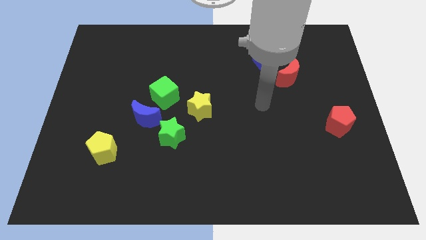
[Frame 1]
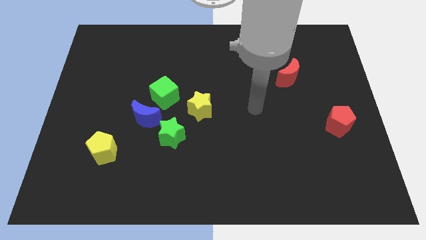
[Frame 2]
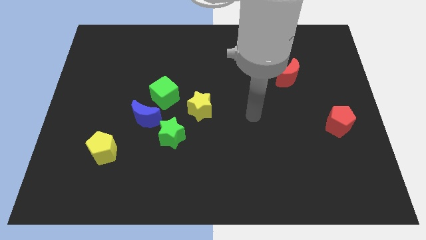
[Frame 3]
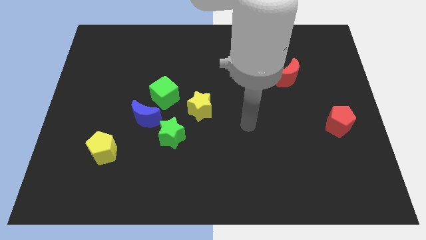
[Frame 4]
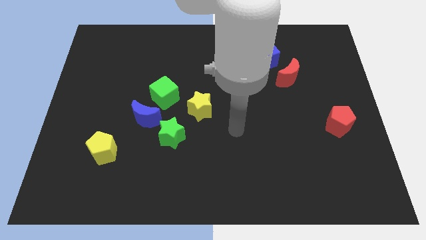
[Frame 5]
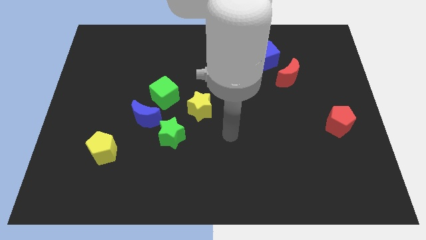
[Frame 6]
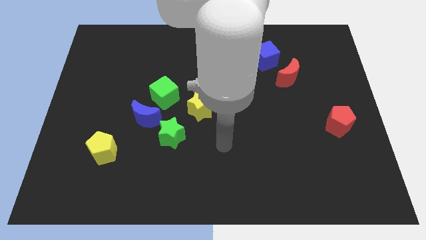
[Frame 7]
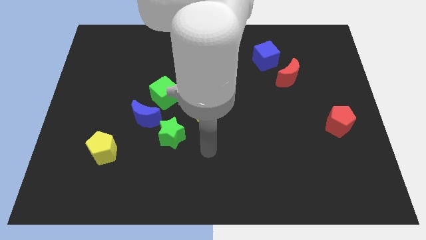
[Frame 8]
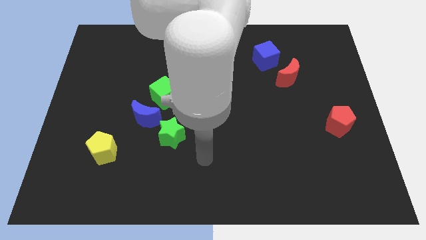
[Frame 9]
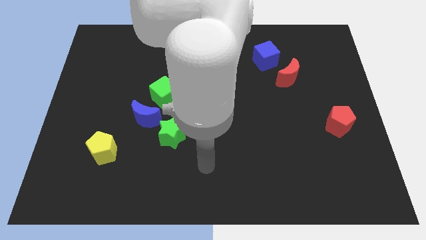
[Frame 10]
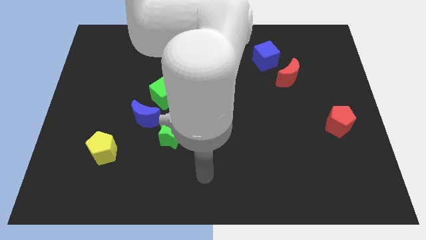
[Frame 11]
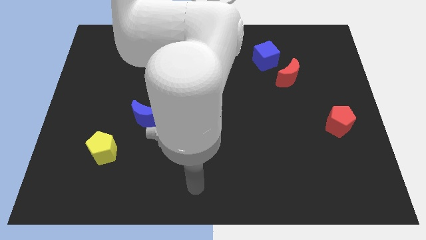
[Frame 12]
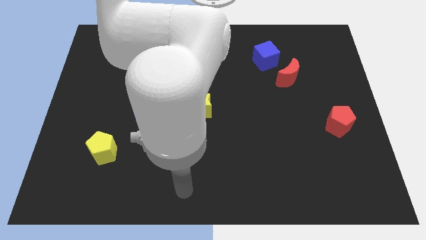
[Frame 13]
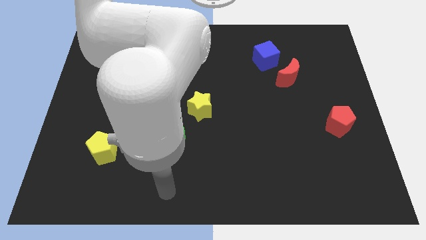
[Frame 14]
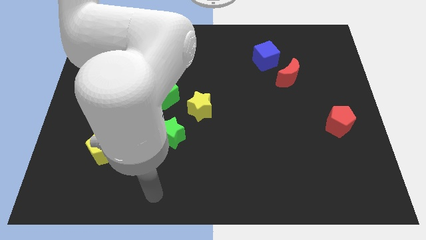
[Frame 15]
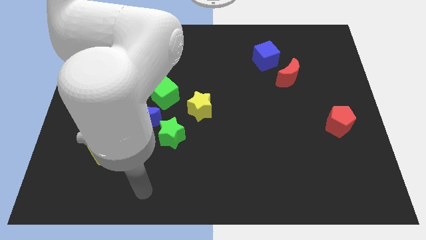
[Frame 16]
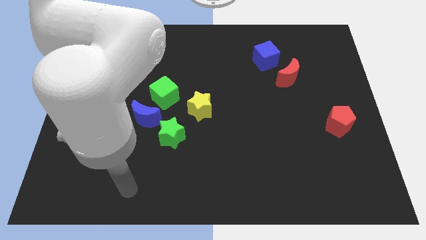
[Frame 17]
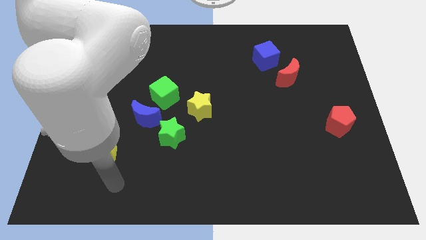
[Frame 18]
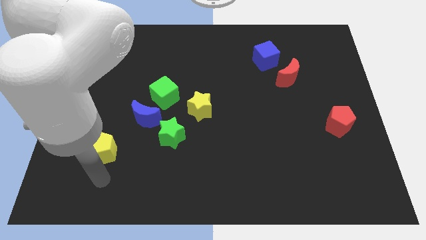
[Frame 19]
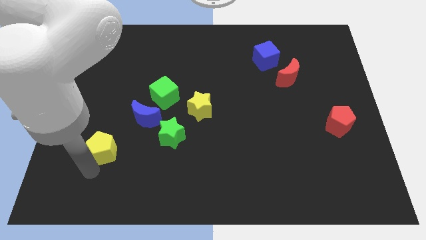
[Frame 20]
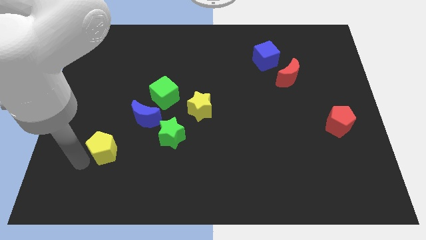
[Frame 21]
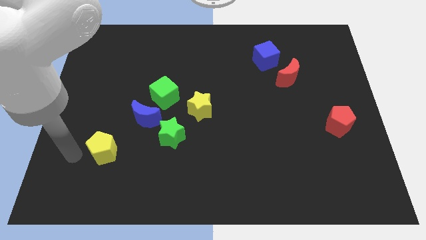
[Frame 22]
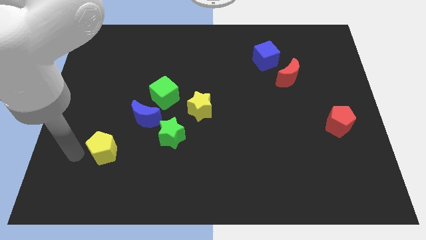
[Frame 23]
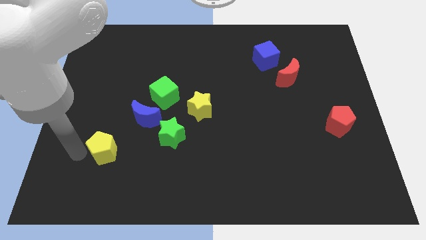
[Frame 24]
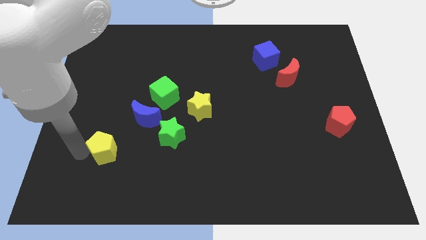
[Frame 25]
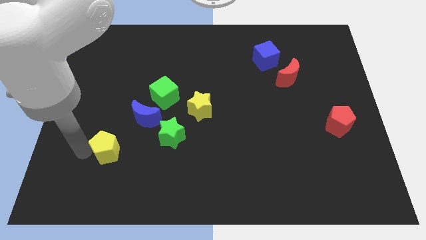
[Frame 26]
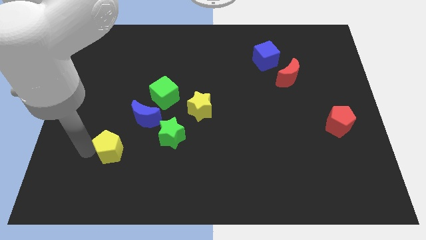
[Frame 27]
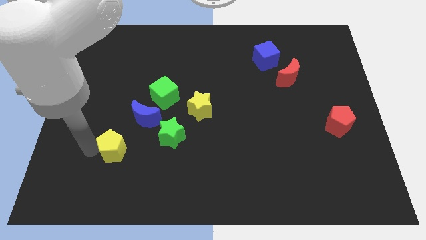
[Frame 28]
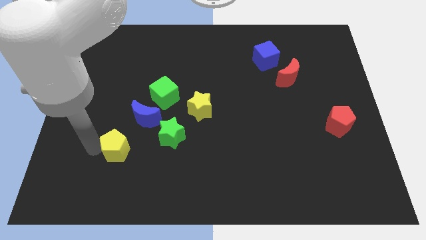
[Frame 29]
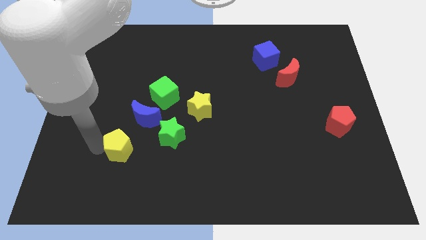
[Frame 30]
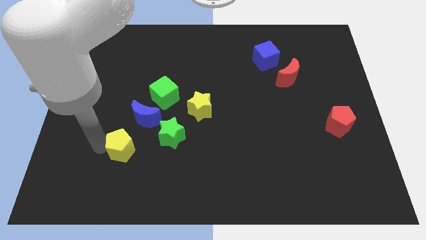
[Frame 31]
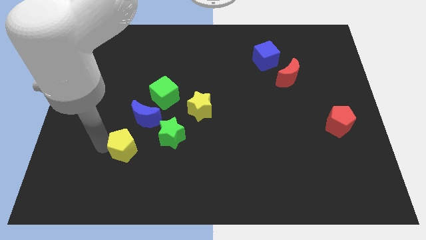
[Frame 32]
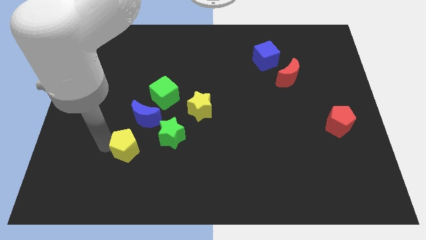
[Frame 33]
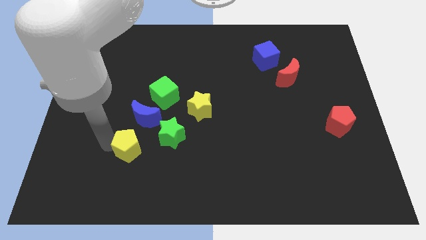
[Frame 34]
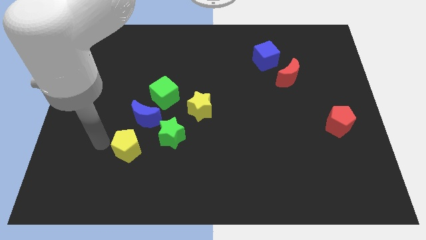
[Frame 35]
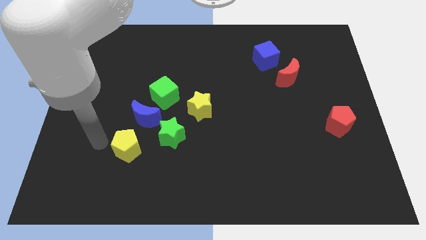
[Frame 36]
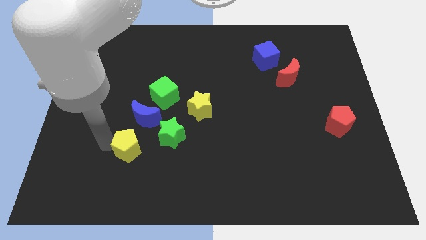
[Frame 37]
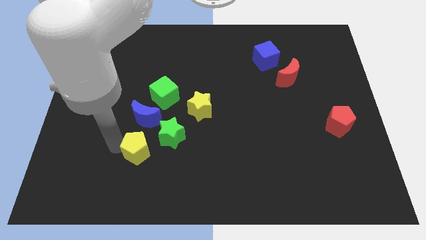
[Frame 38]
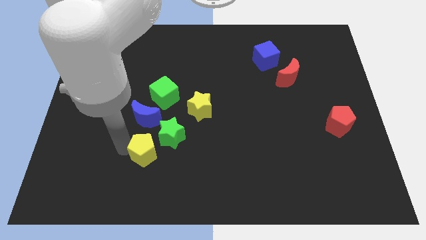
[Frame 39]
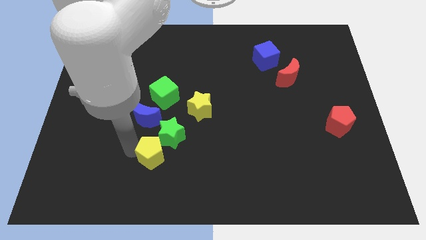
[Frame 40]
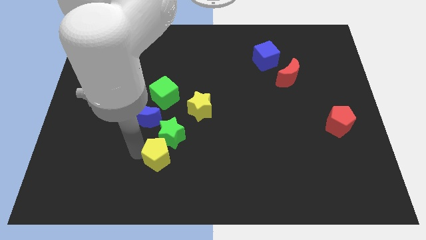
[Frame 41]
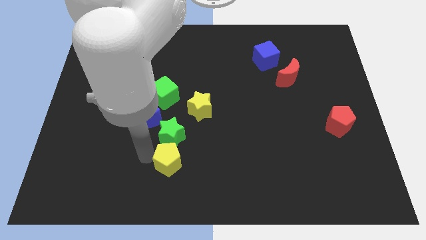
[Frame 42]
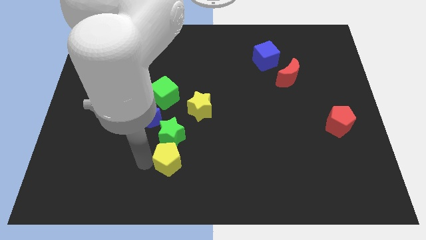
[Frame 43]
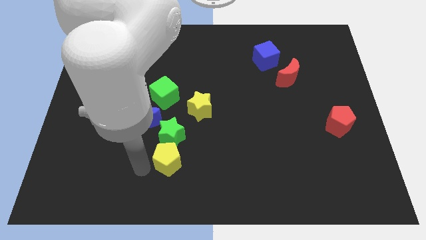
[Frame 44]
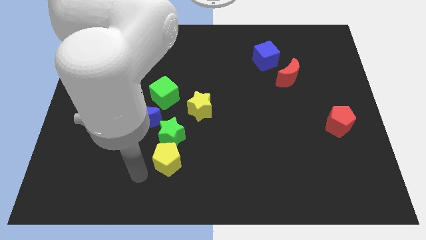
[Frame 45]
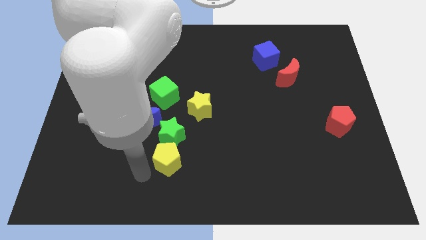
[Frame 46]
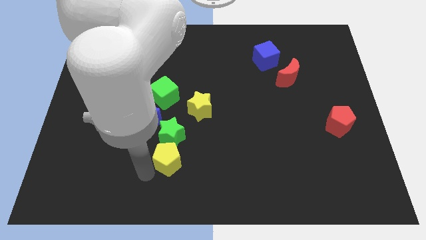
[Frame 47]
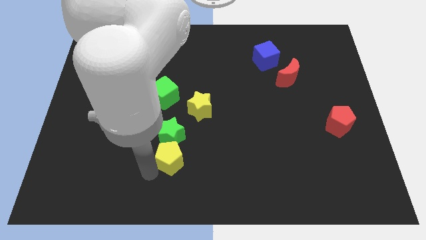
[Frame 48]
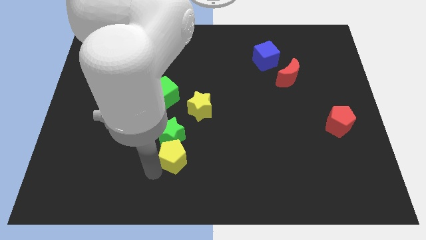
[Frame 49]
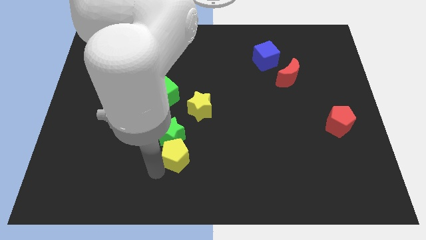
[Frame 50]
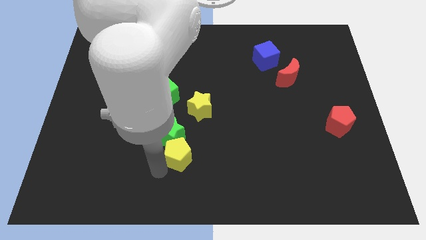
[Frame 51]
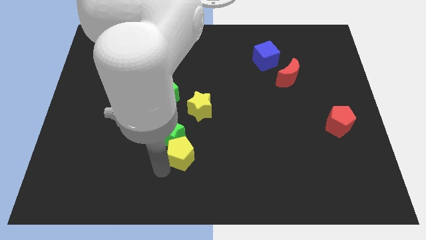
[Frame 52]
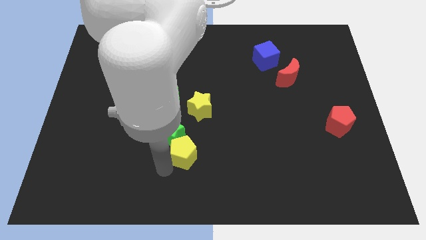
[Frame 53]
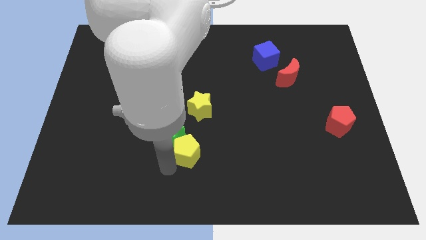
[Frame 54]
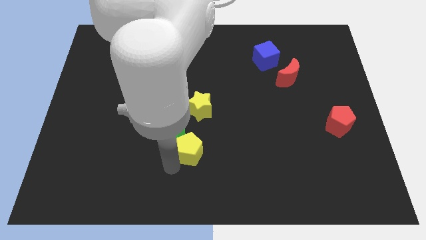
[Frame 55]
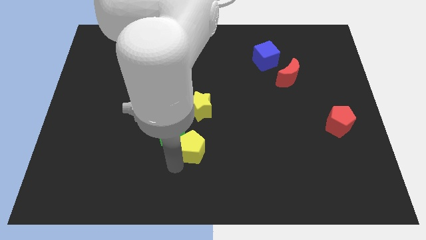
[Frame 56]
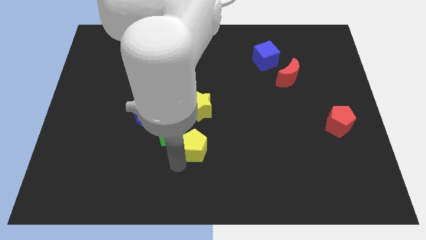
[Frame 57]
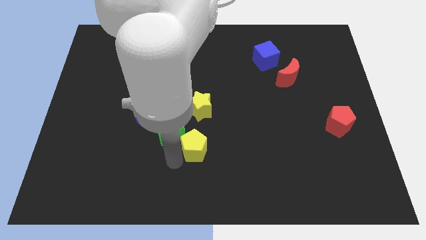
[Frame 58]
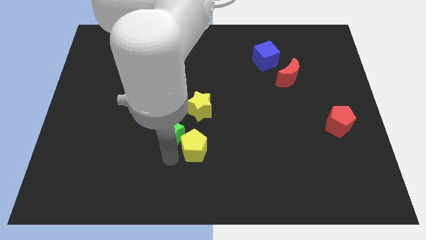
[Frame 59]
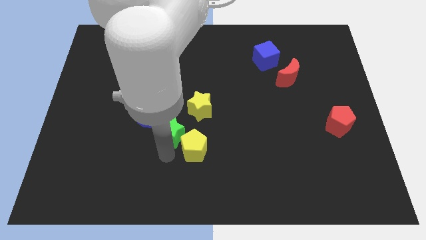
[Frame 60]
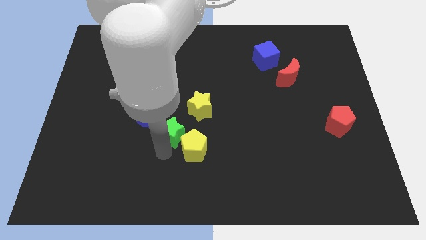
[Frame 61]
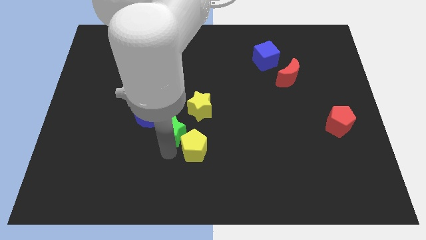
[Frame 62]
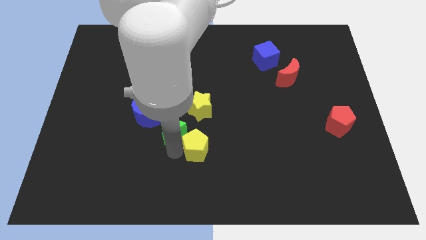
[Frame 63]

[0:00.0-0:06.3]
move the yellow pentagon right

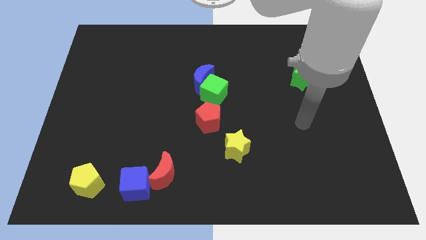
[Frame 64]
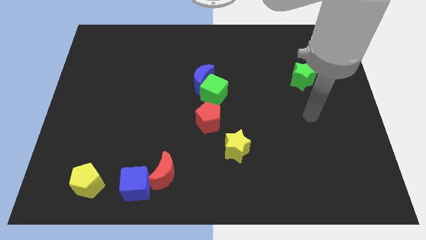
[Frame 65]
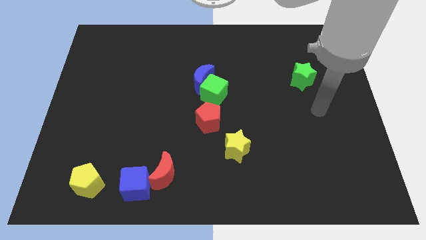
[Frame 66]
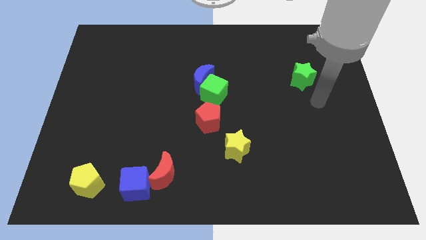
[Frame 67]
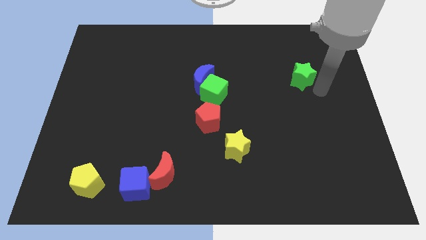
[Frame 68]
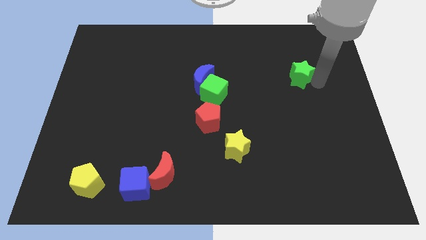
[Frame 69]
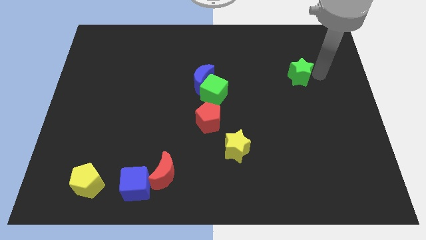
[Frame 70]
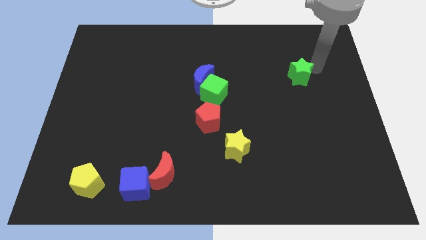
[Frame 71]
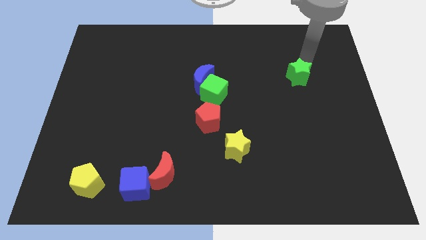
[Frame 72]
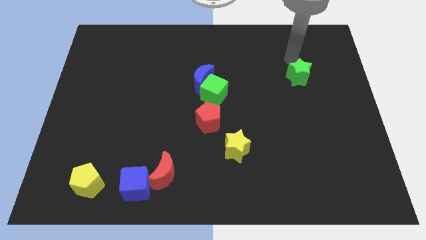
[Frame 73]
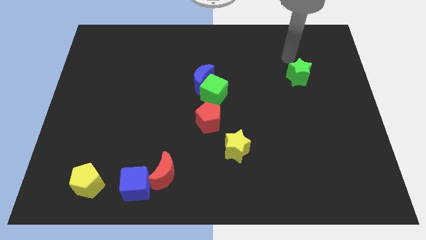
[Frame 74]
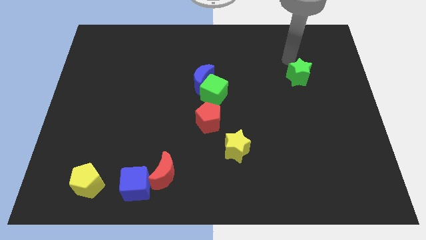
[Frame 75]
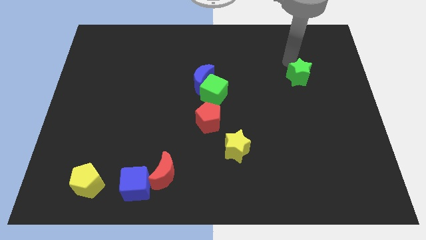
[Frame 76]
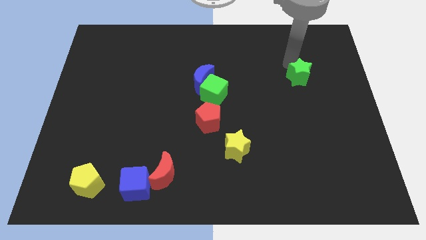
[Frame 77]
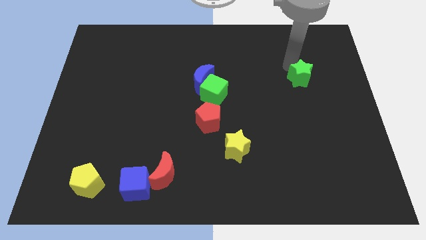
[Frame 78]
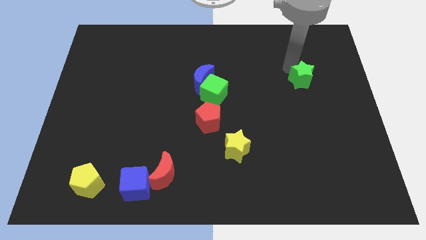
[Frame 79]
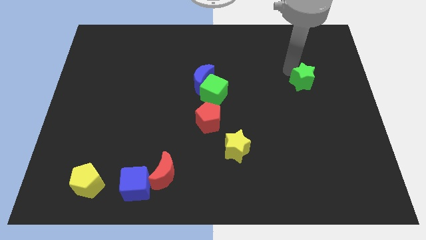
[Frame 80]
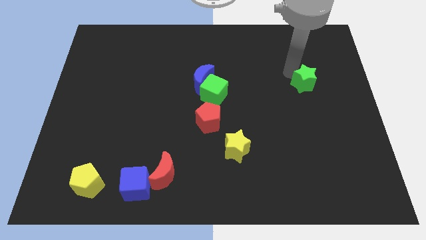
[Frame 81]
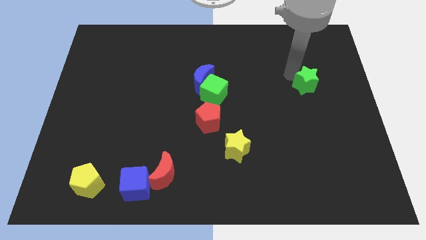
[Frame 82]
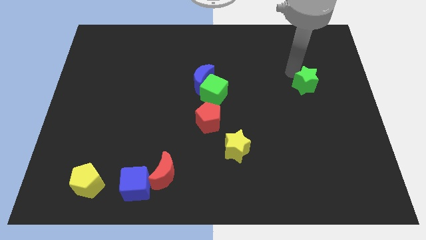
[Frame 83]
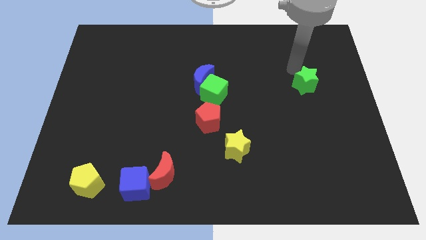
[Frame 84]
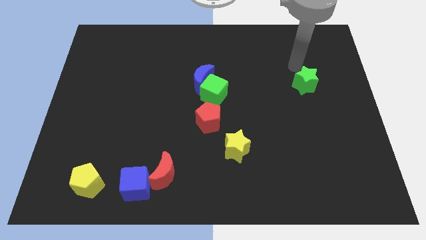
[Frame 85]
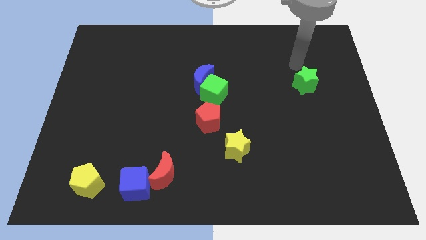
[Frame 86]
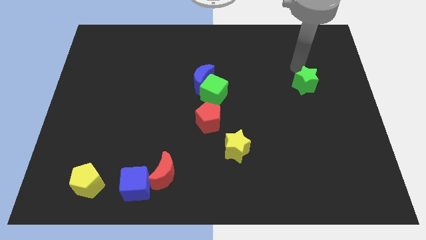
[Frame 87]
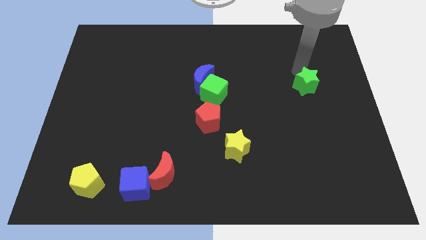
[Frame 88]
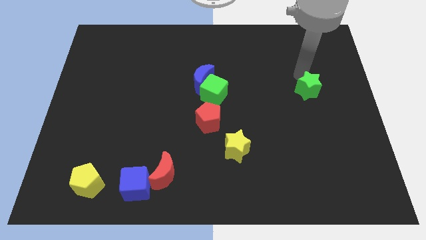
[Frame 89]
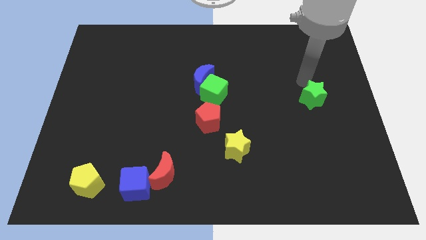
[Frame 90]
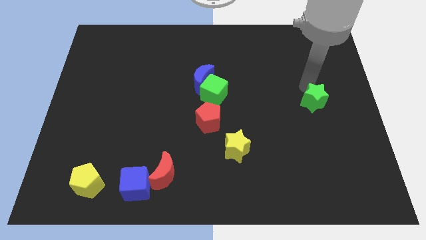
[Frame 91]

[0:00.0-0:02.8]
push the green star down somewhat
